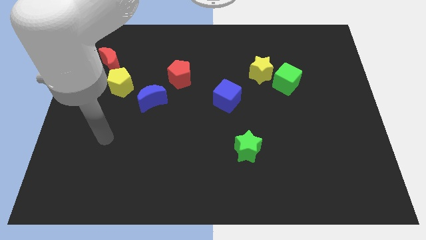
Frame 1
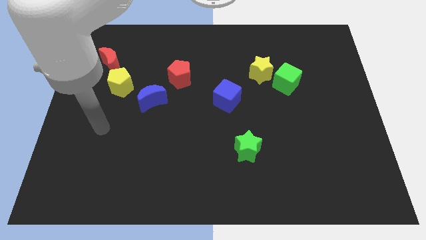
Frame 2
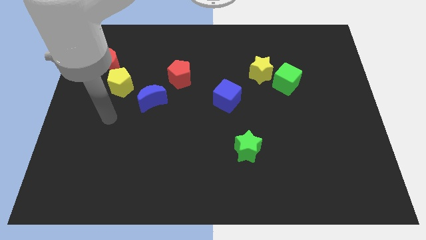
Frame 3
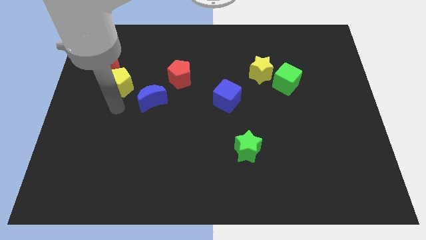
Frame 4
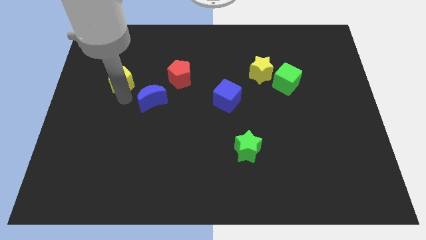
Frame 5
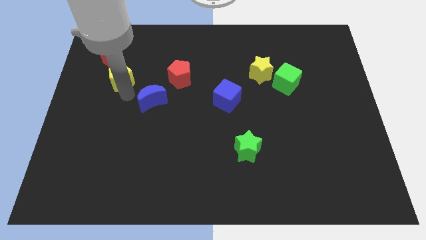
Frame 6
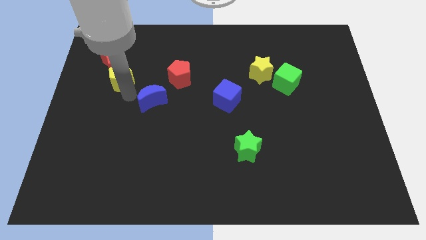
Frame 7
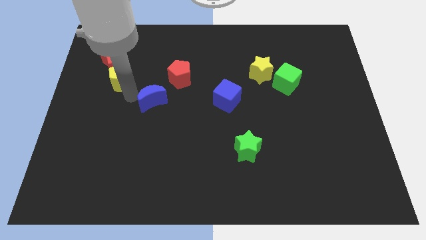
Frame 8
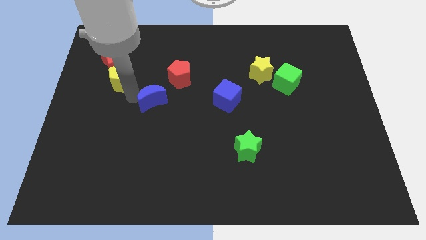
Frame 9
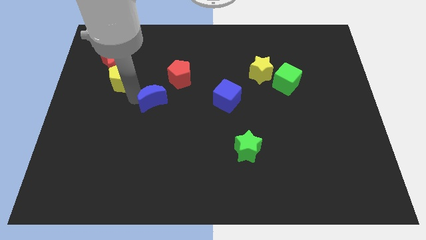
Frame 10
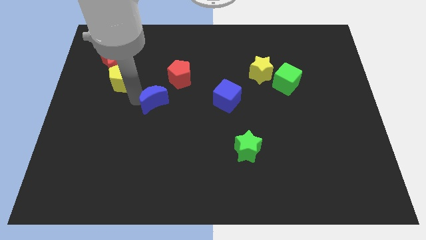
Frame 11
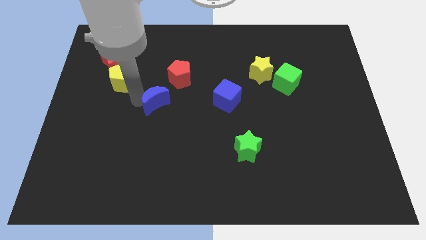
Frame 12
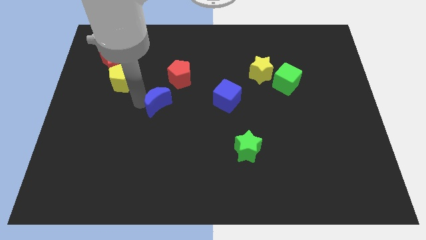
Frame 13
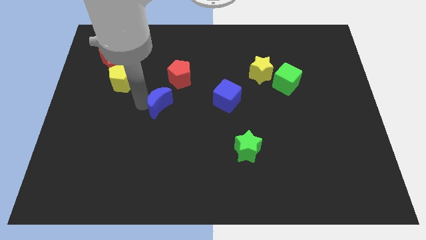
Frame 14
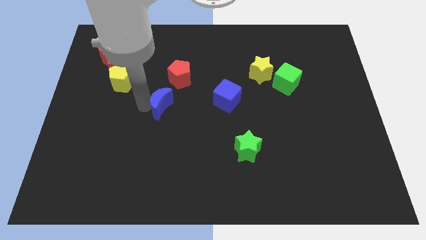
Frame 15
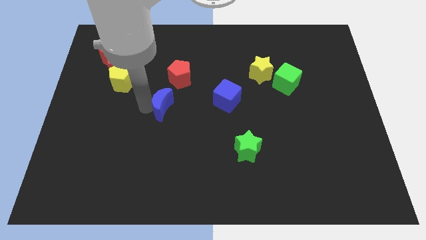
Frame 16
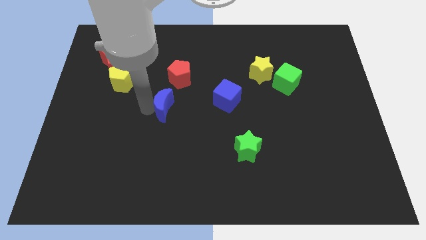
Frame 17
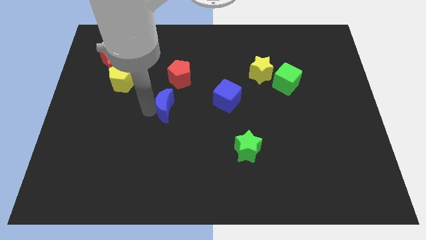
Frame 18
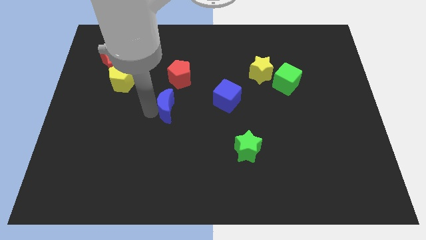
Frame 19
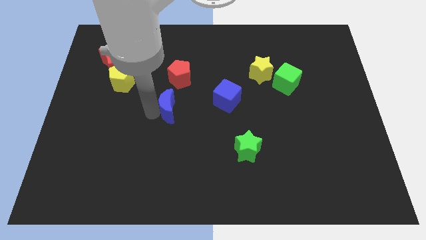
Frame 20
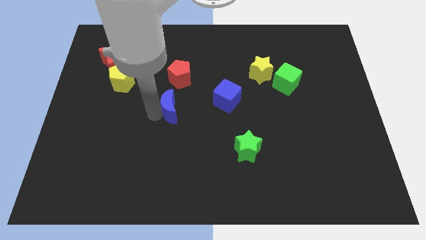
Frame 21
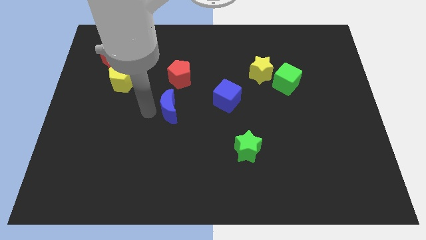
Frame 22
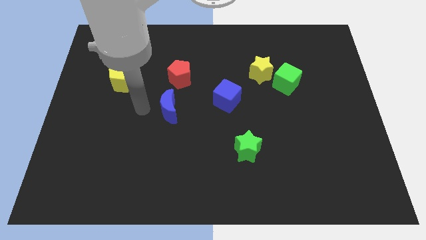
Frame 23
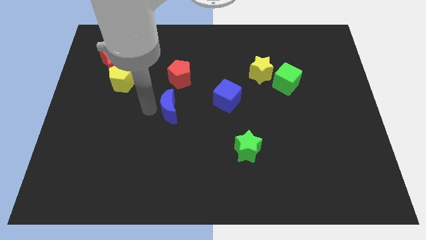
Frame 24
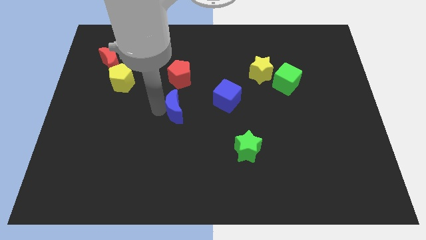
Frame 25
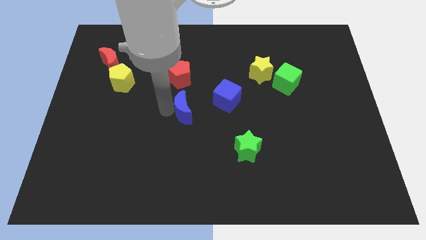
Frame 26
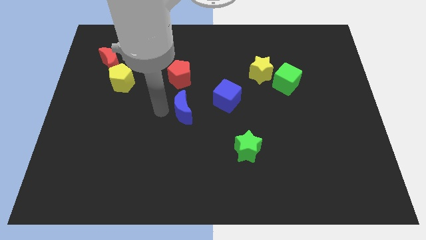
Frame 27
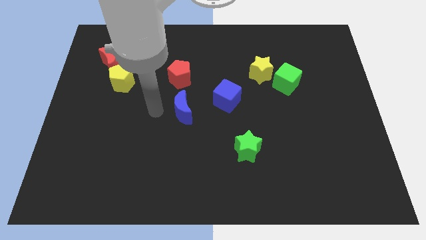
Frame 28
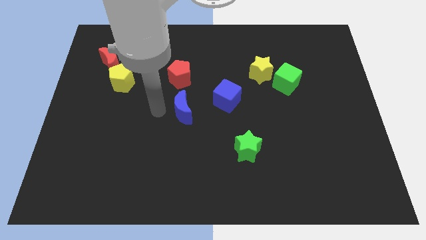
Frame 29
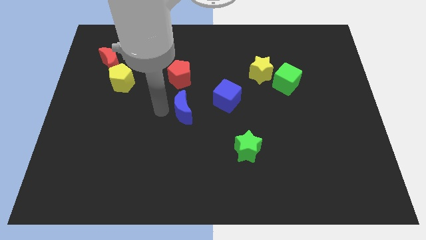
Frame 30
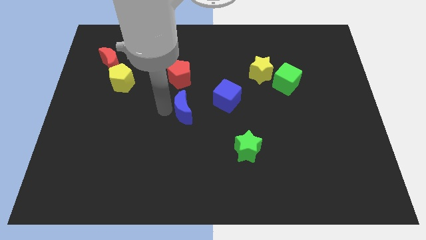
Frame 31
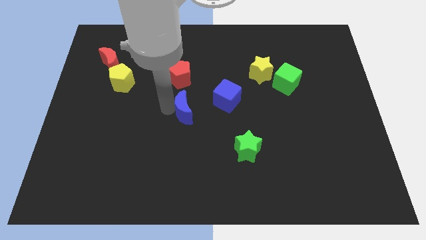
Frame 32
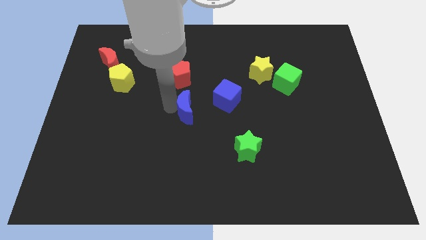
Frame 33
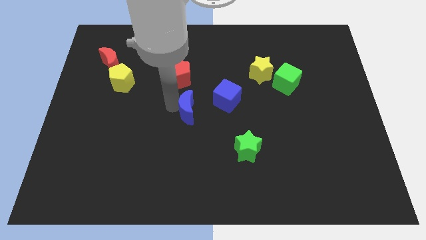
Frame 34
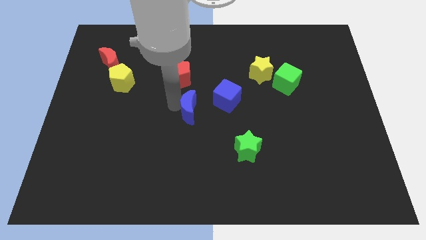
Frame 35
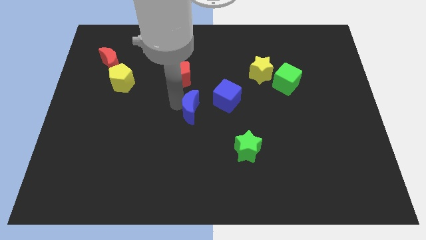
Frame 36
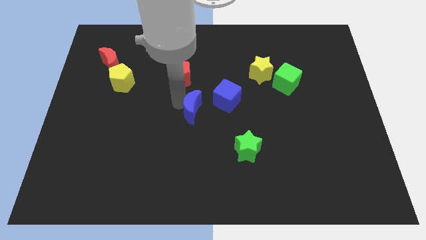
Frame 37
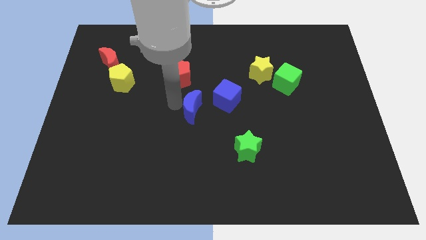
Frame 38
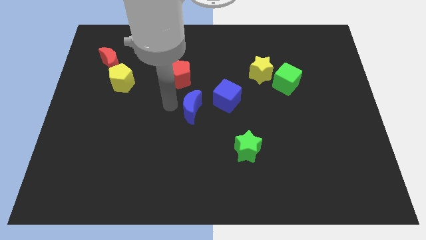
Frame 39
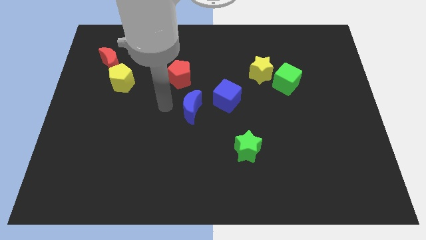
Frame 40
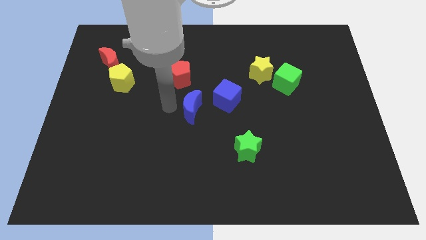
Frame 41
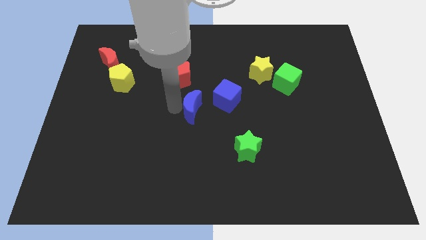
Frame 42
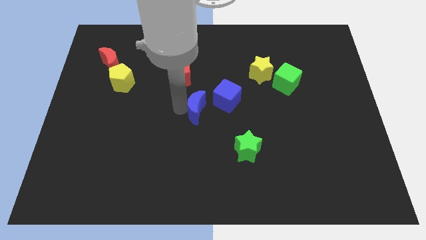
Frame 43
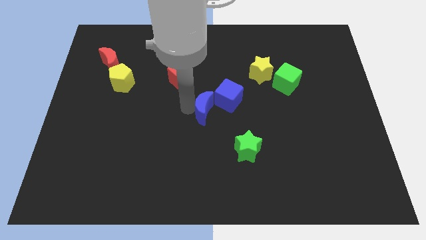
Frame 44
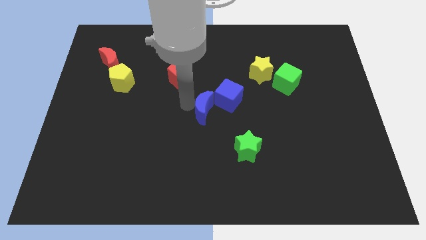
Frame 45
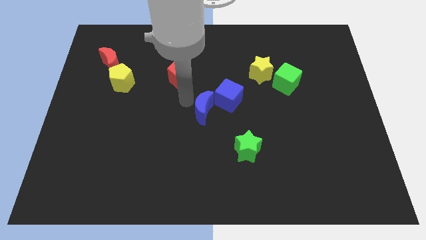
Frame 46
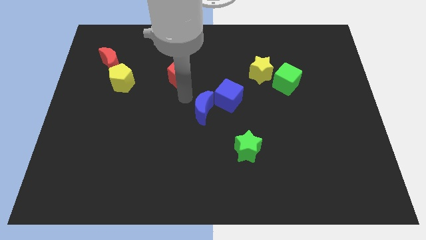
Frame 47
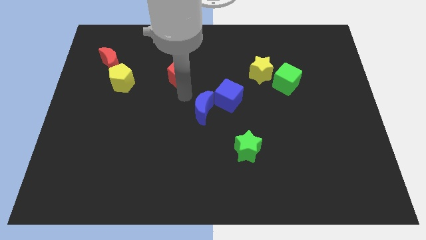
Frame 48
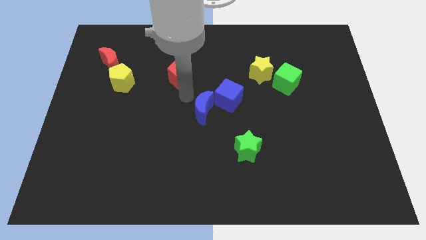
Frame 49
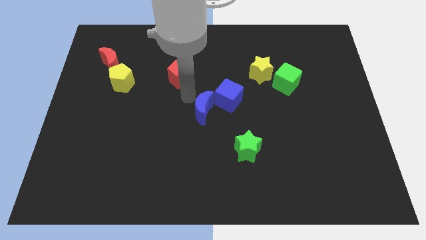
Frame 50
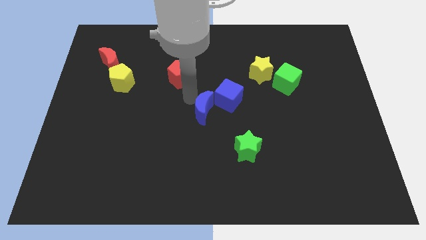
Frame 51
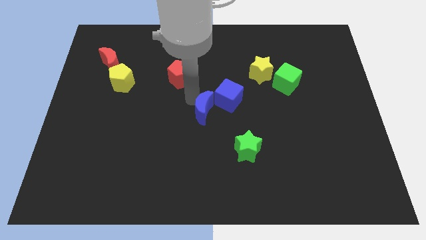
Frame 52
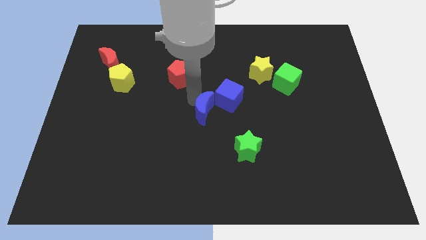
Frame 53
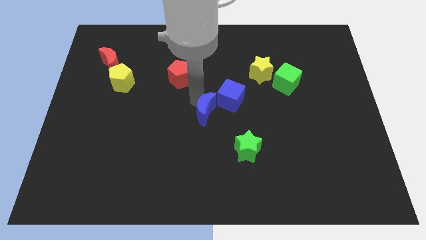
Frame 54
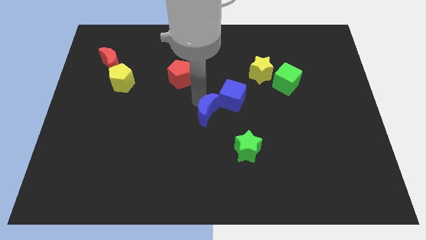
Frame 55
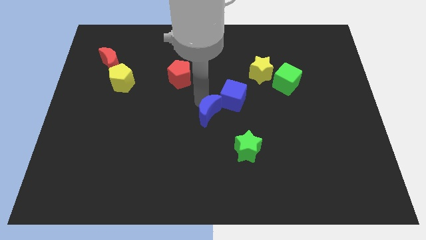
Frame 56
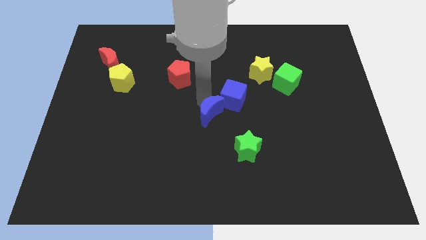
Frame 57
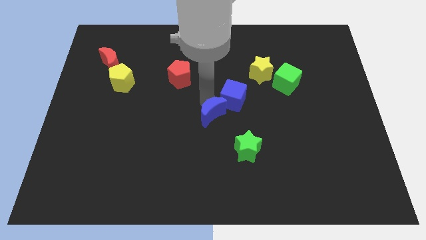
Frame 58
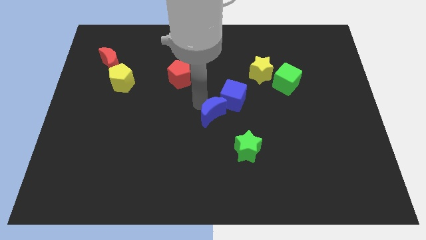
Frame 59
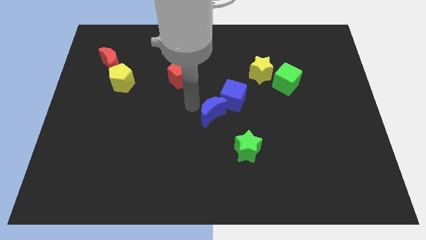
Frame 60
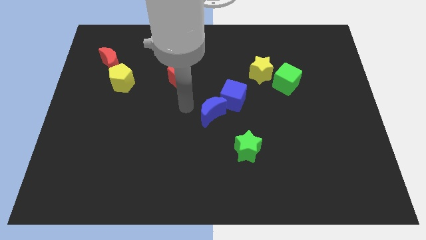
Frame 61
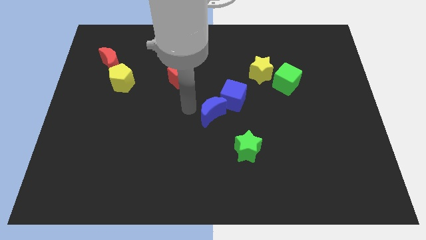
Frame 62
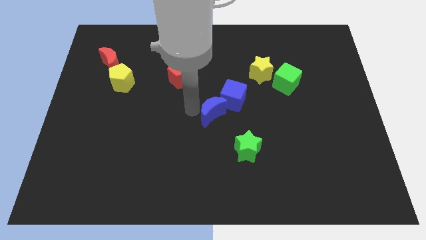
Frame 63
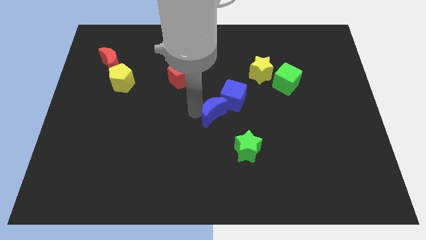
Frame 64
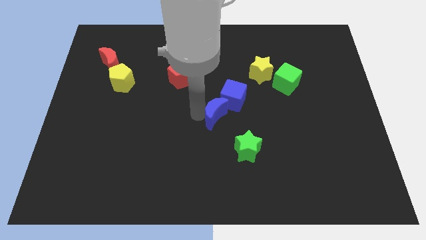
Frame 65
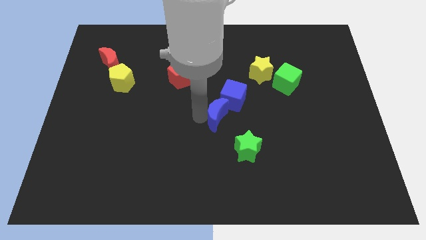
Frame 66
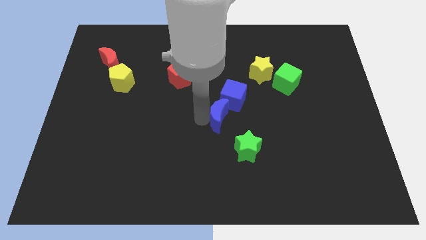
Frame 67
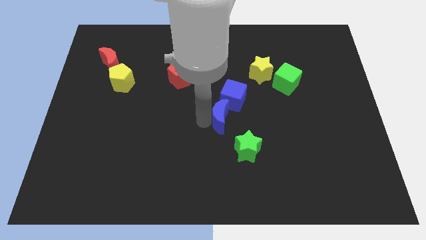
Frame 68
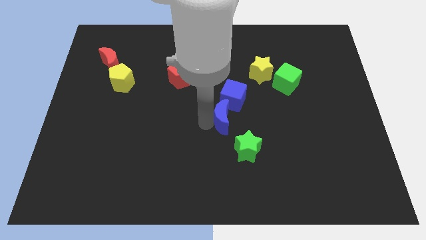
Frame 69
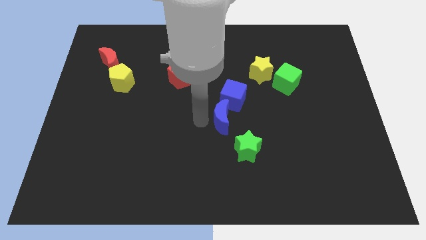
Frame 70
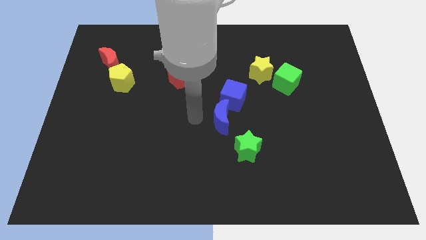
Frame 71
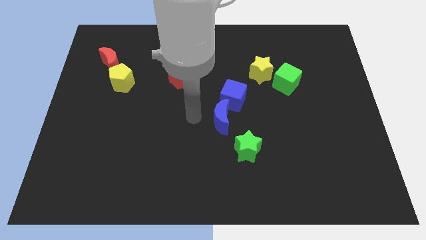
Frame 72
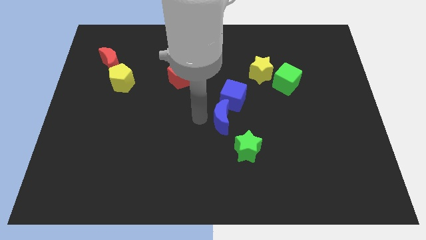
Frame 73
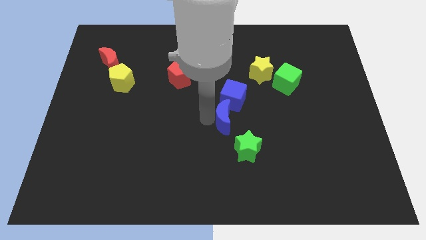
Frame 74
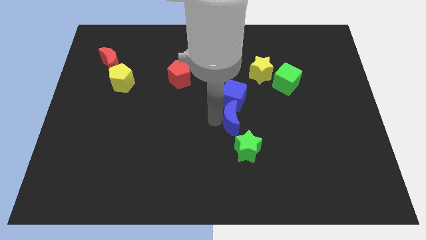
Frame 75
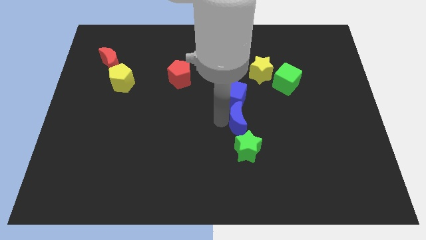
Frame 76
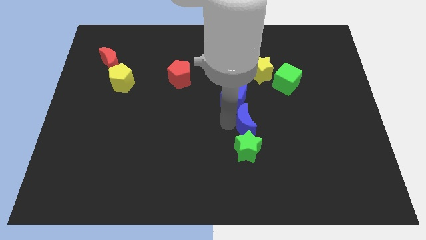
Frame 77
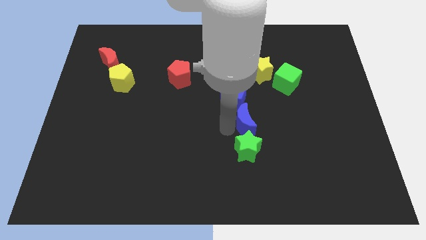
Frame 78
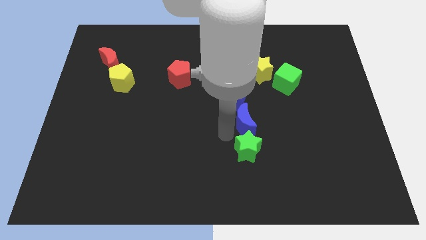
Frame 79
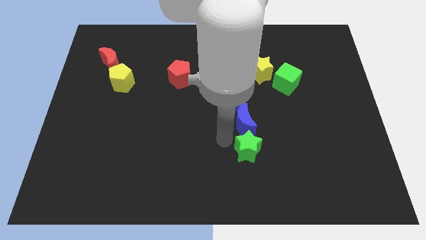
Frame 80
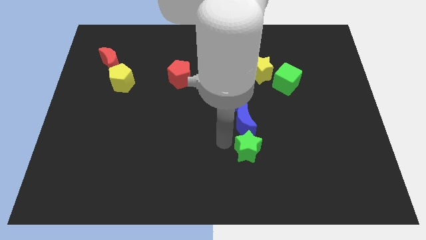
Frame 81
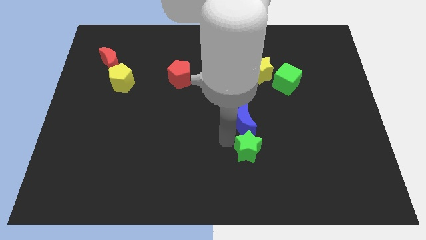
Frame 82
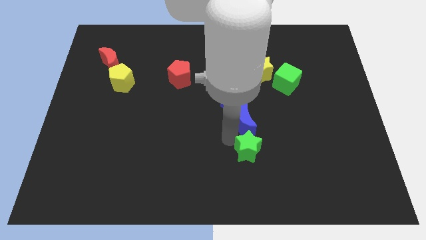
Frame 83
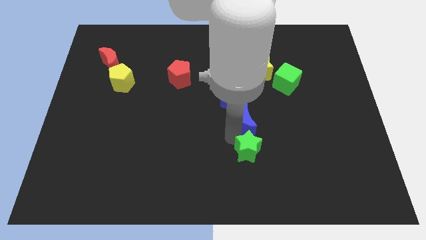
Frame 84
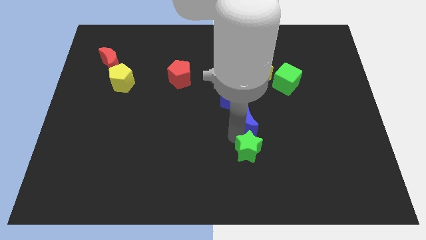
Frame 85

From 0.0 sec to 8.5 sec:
move the blue moon right
